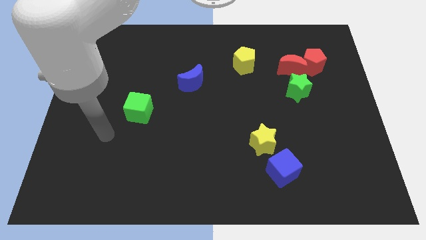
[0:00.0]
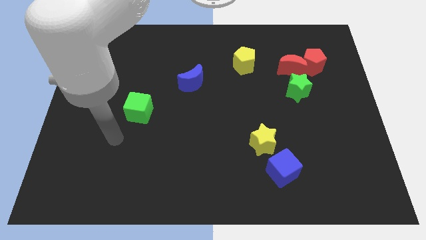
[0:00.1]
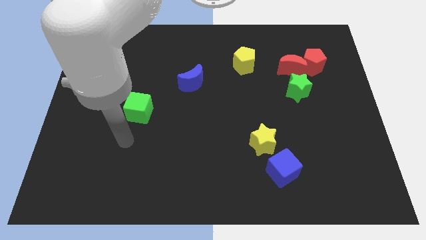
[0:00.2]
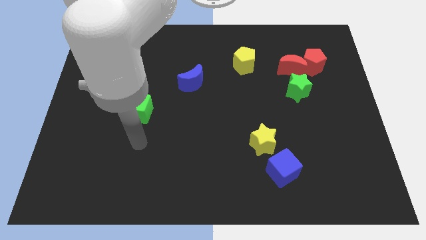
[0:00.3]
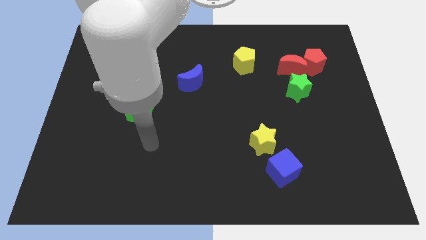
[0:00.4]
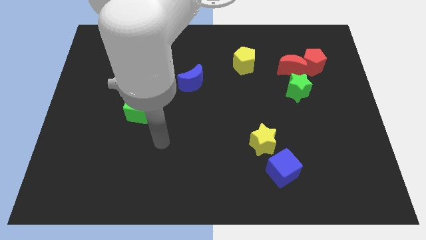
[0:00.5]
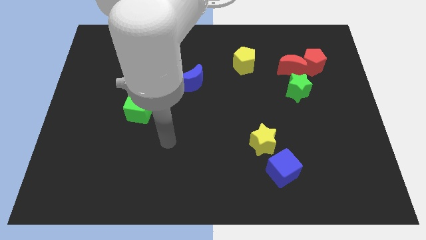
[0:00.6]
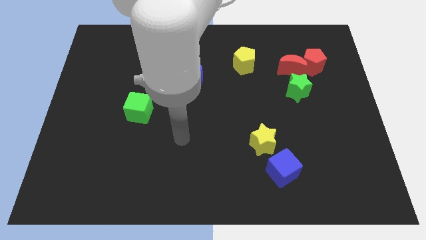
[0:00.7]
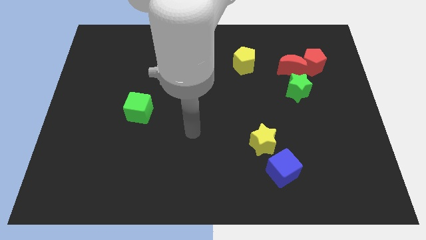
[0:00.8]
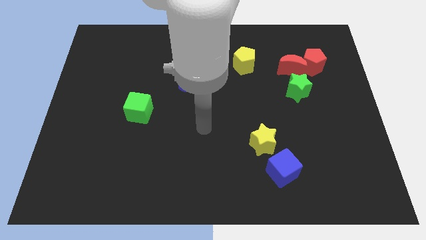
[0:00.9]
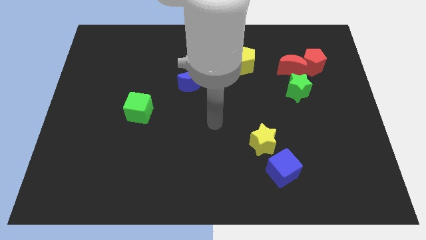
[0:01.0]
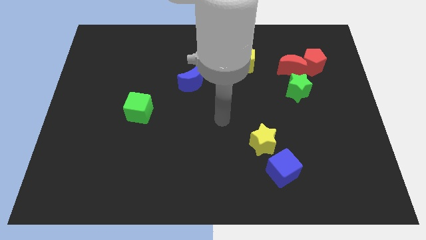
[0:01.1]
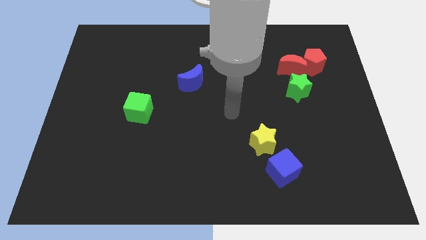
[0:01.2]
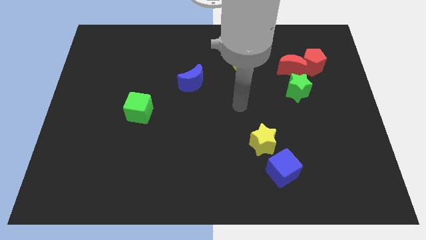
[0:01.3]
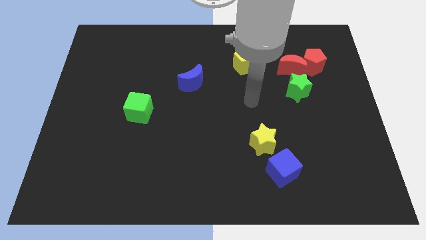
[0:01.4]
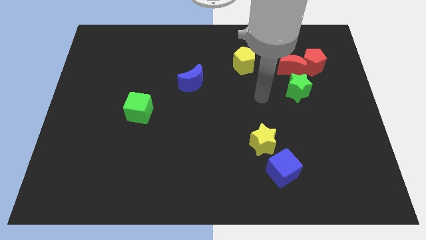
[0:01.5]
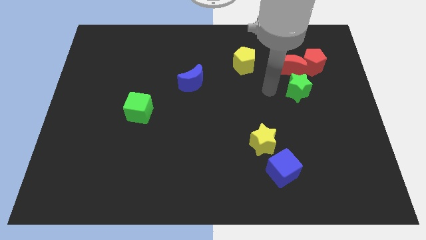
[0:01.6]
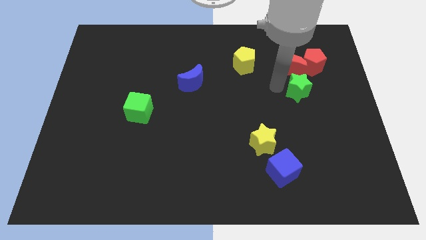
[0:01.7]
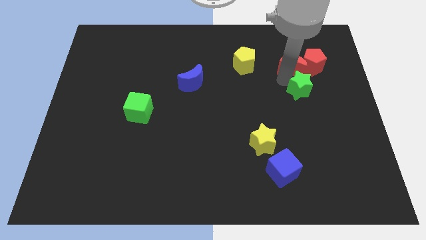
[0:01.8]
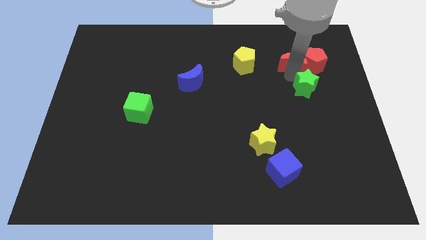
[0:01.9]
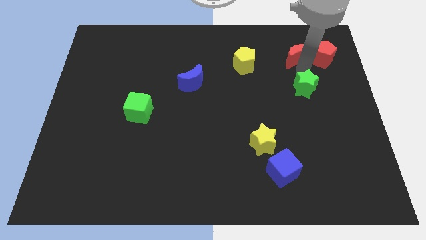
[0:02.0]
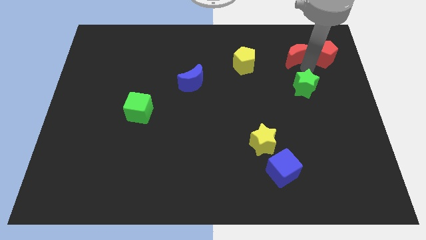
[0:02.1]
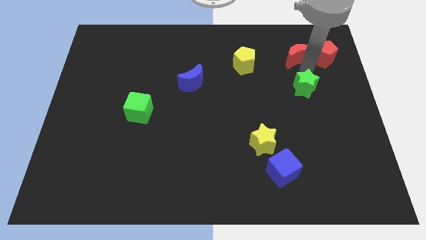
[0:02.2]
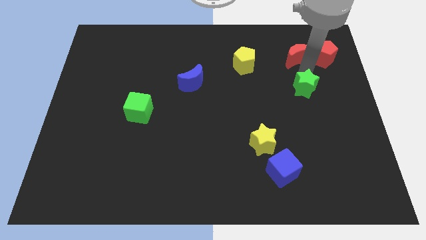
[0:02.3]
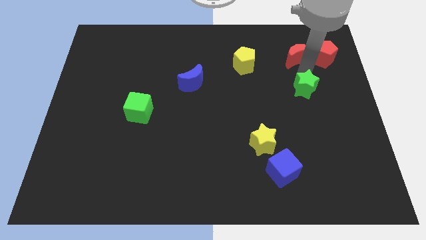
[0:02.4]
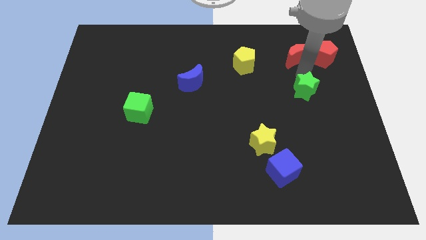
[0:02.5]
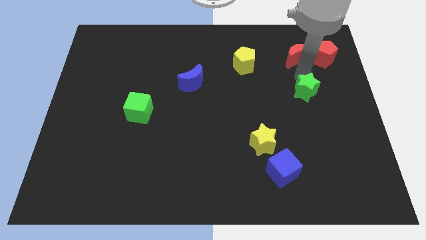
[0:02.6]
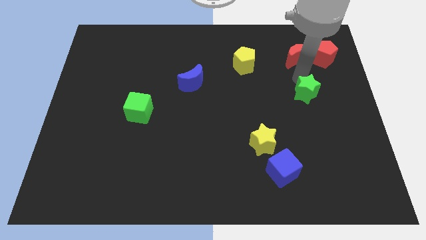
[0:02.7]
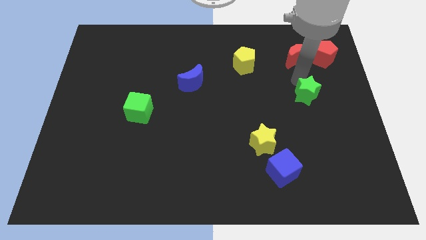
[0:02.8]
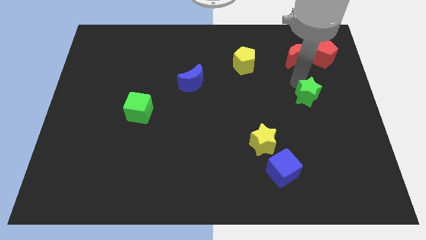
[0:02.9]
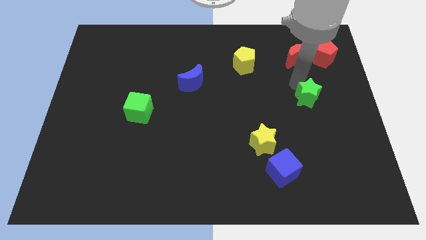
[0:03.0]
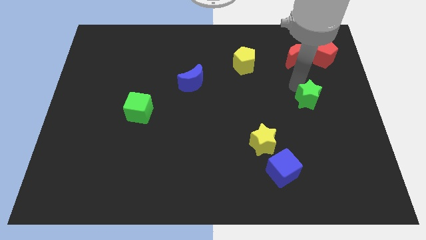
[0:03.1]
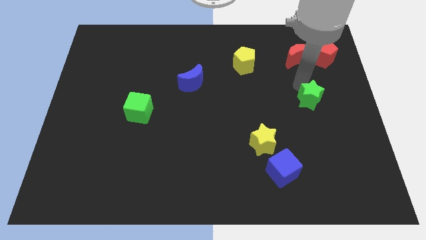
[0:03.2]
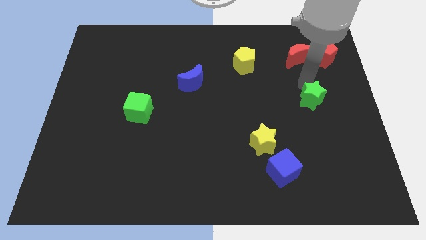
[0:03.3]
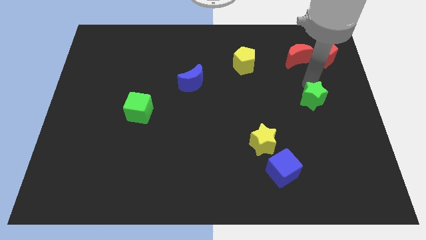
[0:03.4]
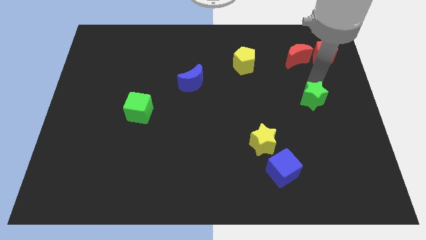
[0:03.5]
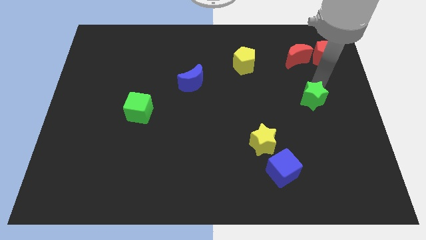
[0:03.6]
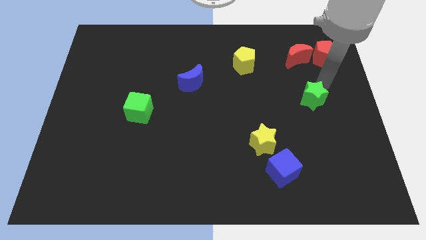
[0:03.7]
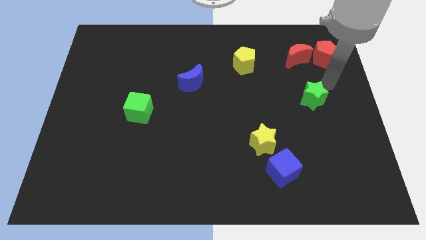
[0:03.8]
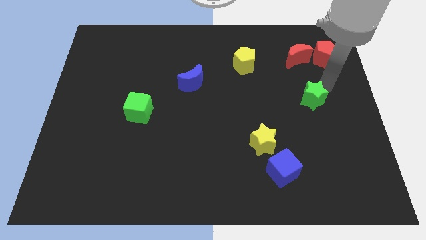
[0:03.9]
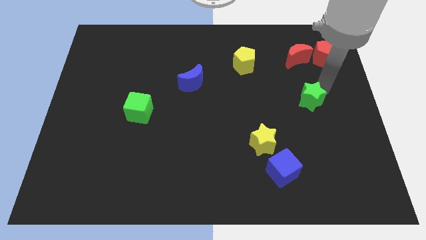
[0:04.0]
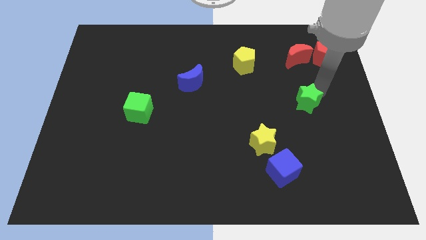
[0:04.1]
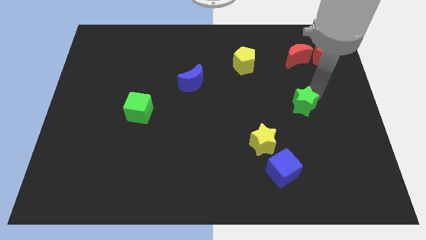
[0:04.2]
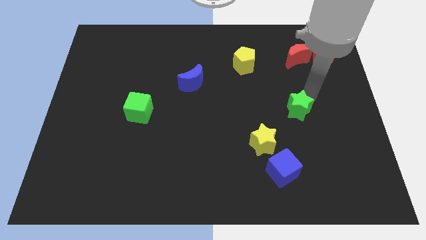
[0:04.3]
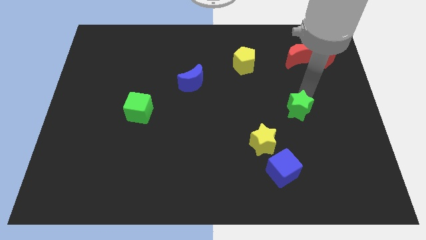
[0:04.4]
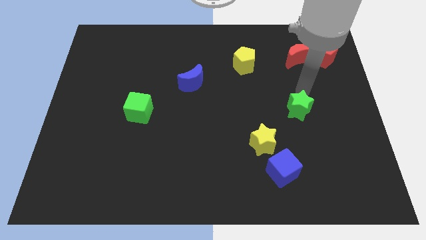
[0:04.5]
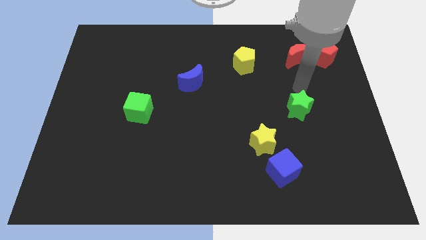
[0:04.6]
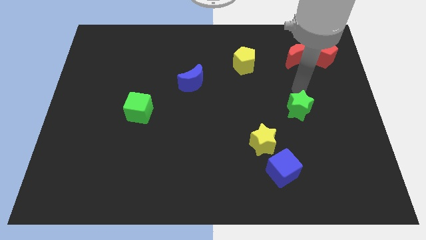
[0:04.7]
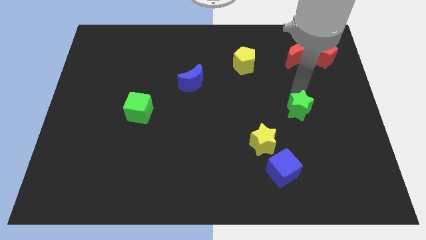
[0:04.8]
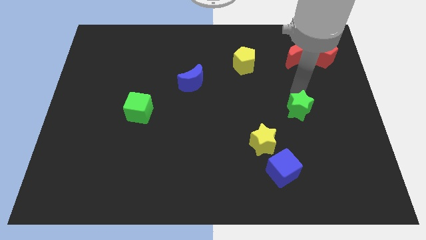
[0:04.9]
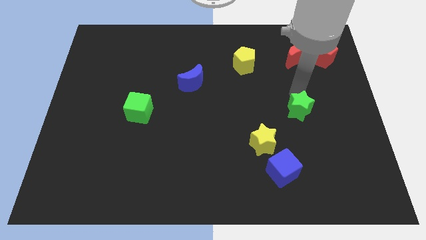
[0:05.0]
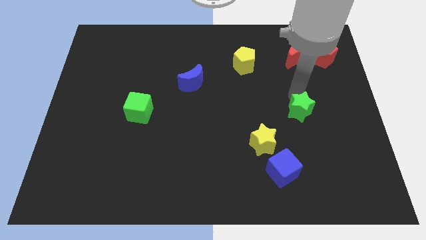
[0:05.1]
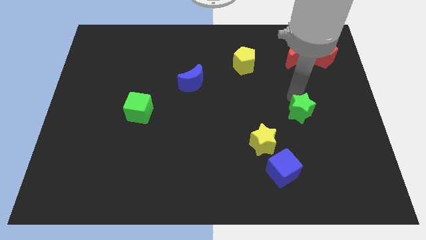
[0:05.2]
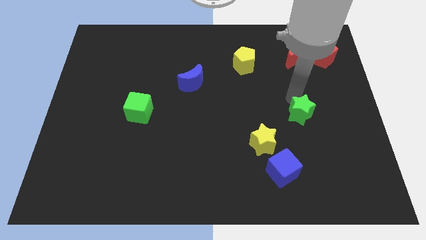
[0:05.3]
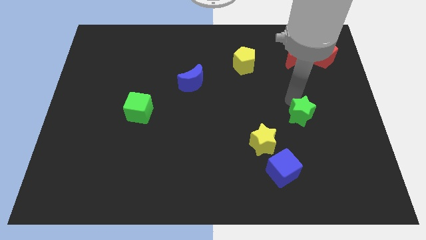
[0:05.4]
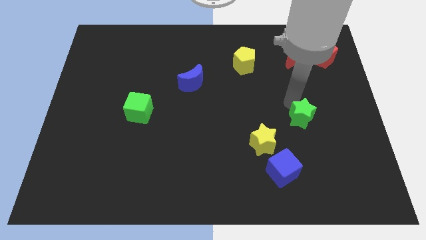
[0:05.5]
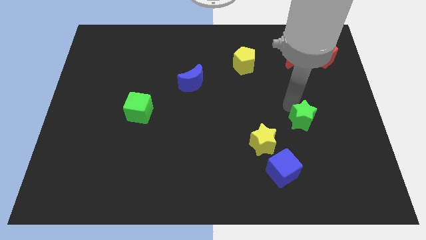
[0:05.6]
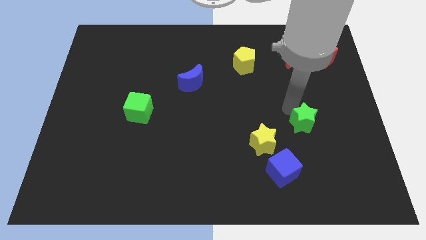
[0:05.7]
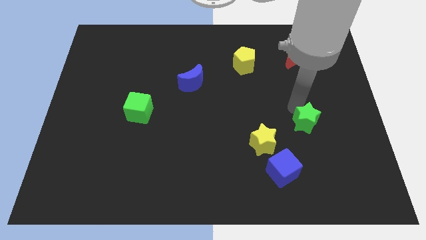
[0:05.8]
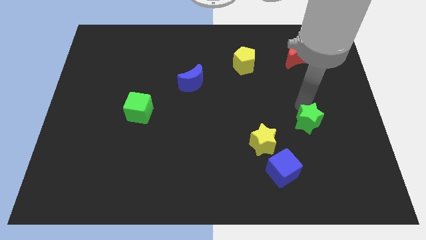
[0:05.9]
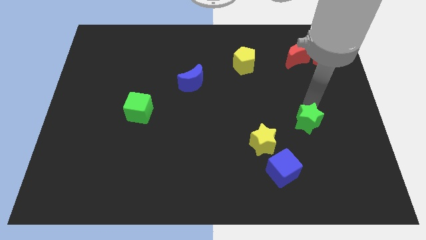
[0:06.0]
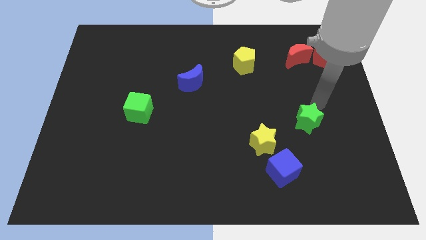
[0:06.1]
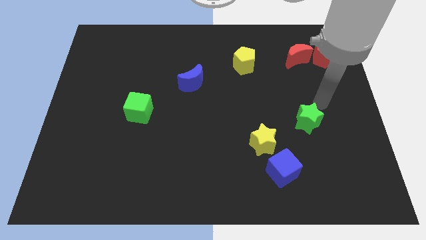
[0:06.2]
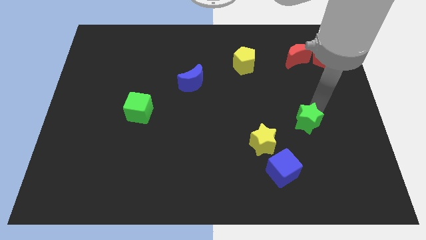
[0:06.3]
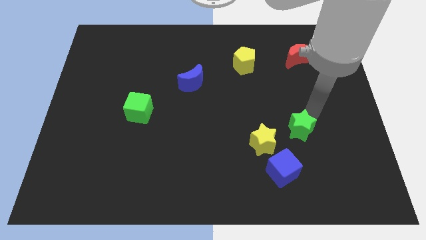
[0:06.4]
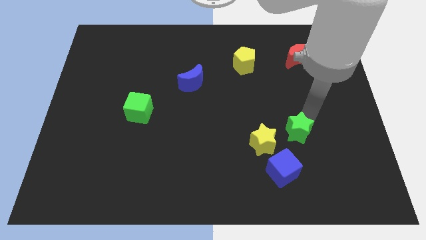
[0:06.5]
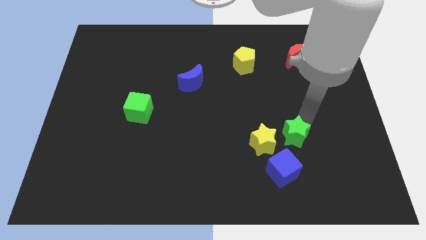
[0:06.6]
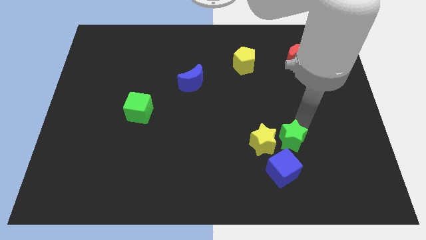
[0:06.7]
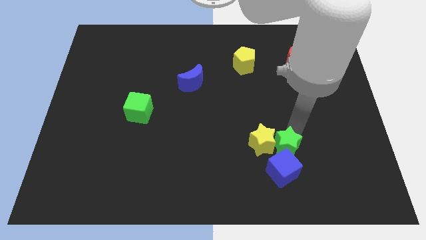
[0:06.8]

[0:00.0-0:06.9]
put the green star towards the blue cube

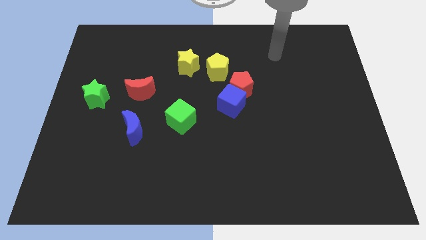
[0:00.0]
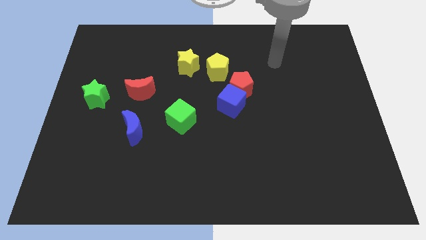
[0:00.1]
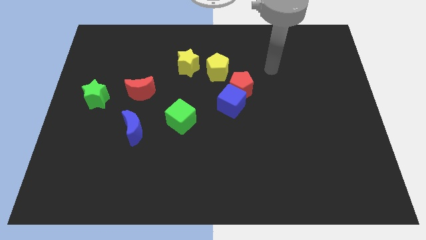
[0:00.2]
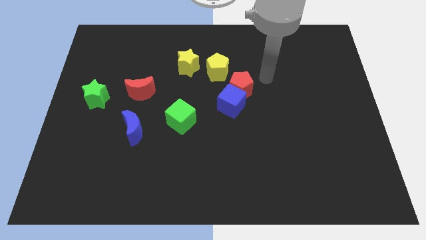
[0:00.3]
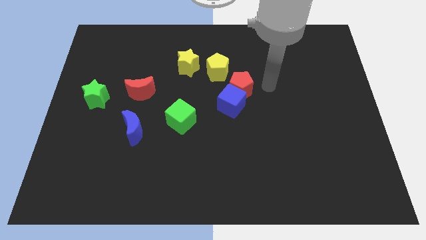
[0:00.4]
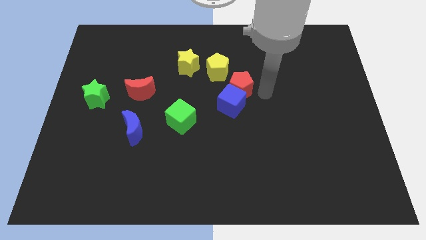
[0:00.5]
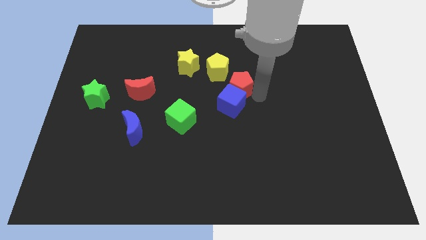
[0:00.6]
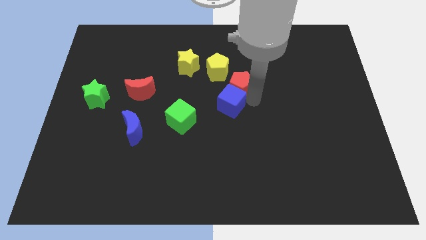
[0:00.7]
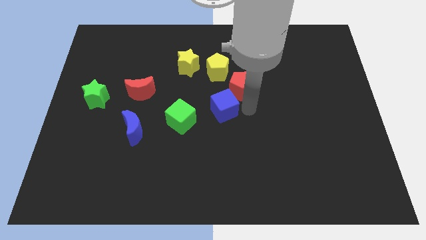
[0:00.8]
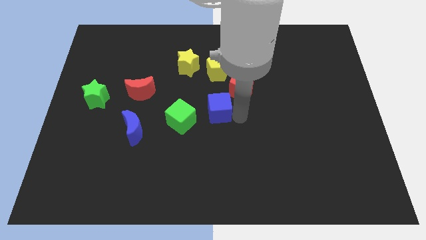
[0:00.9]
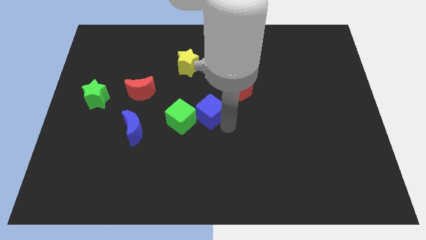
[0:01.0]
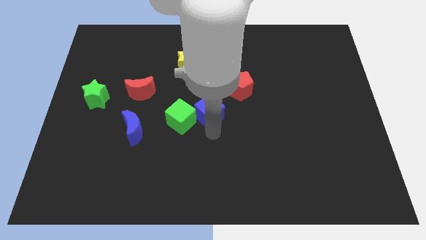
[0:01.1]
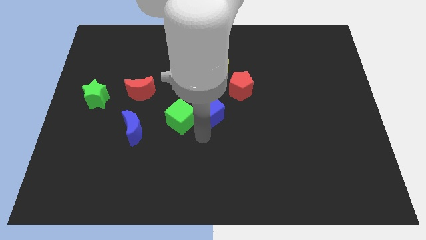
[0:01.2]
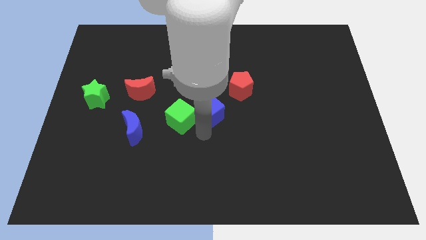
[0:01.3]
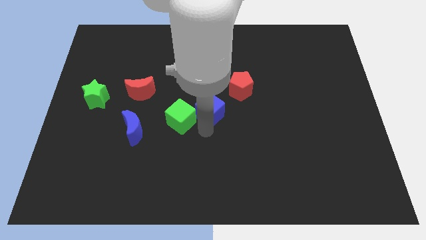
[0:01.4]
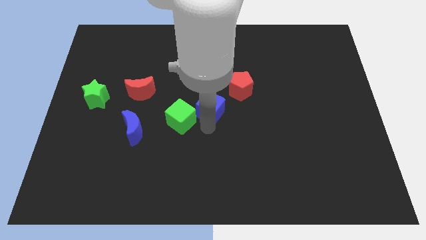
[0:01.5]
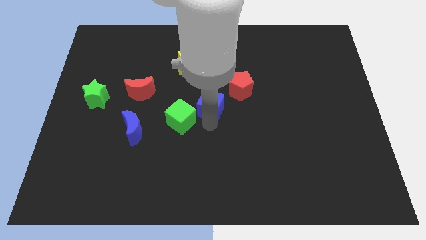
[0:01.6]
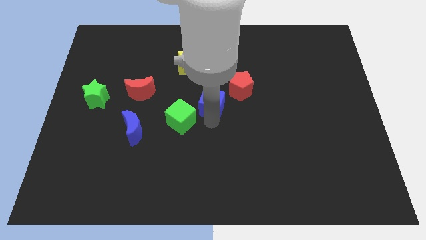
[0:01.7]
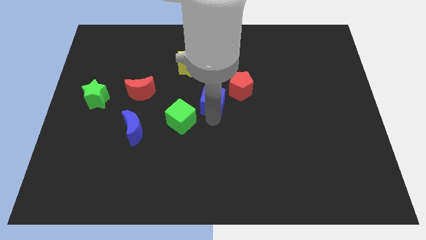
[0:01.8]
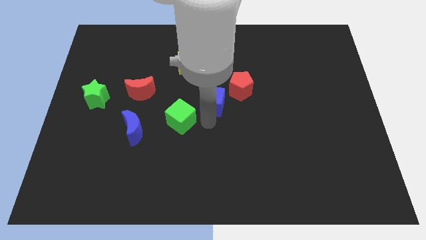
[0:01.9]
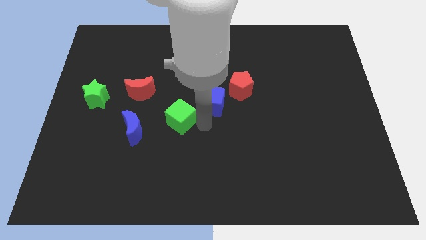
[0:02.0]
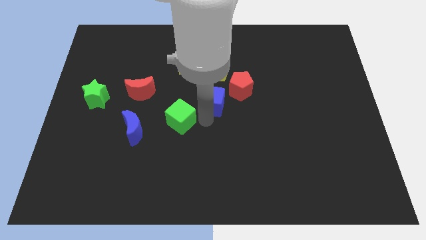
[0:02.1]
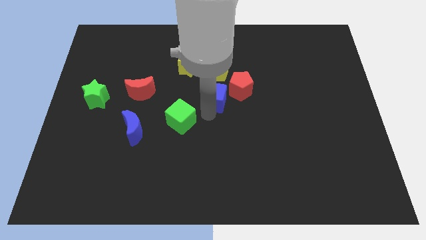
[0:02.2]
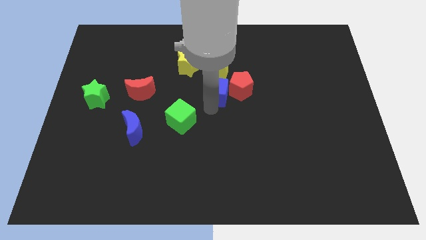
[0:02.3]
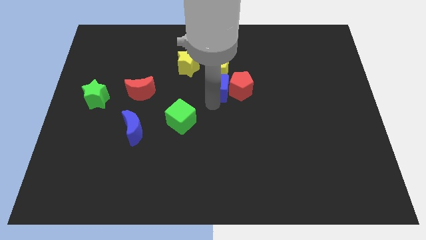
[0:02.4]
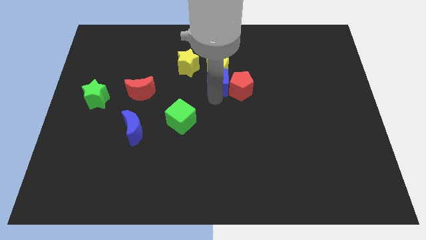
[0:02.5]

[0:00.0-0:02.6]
put the blue cube to the yellow pentagon
